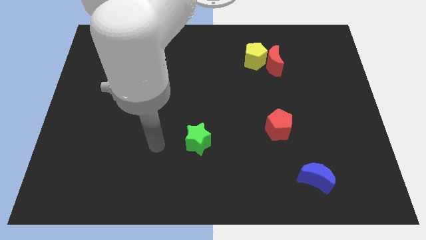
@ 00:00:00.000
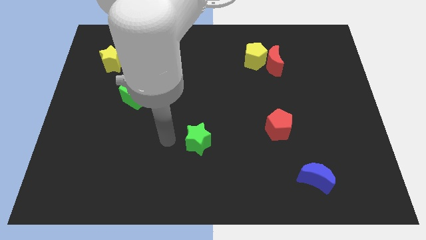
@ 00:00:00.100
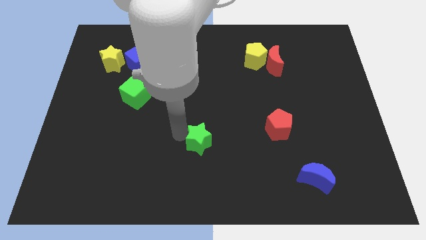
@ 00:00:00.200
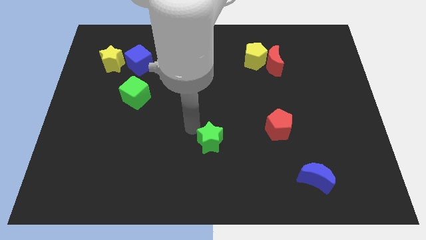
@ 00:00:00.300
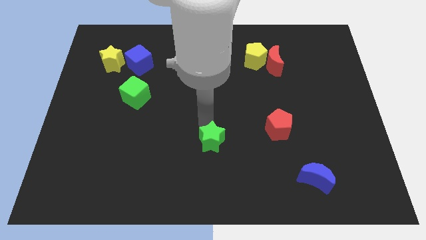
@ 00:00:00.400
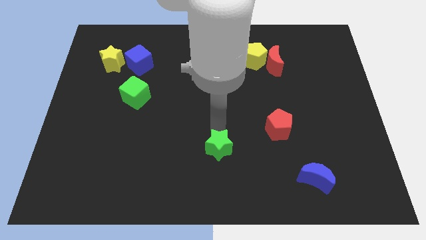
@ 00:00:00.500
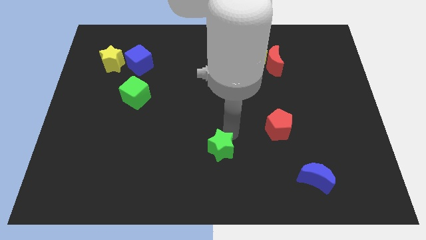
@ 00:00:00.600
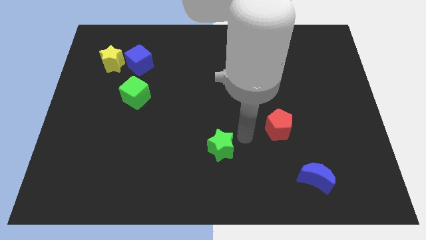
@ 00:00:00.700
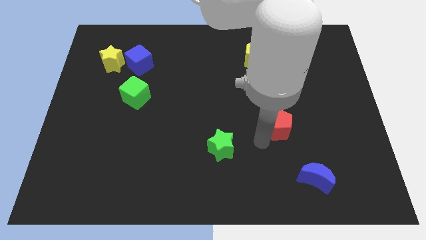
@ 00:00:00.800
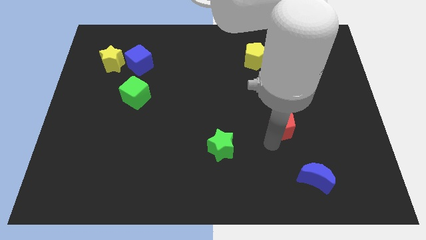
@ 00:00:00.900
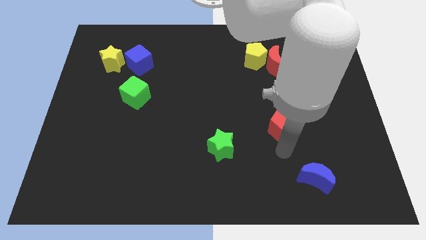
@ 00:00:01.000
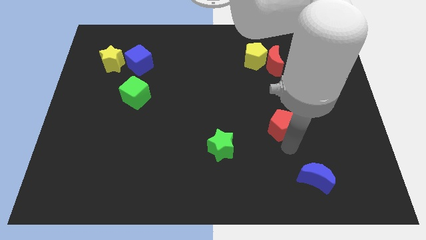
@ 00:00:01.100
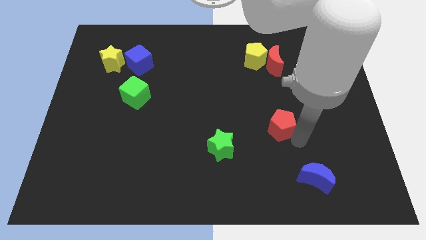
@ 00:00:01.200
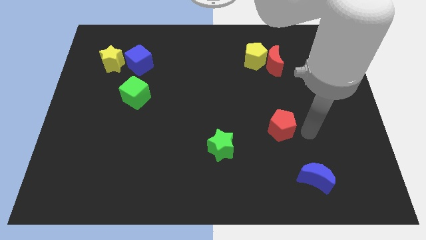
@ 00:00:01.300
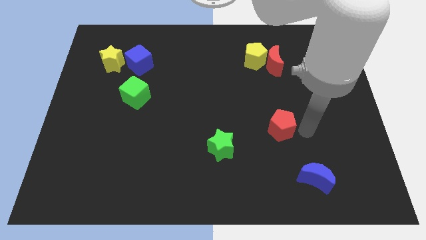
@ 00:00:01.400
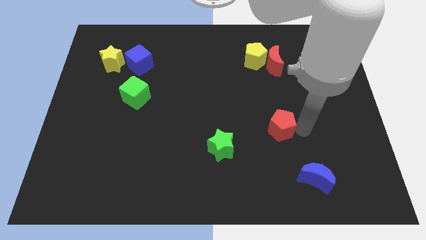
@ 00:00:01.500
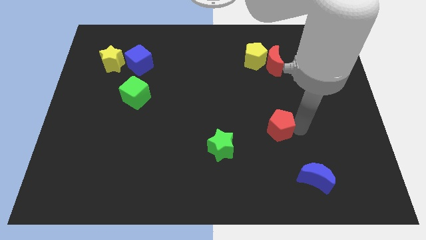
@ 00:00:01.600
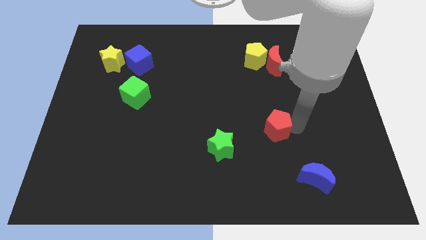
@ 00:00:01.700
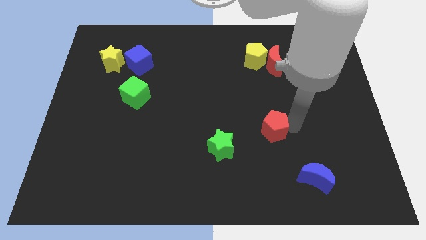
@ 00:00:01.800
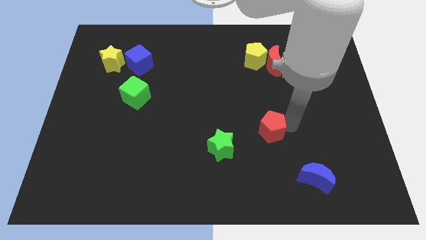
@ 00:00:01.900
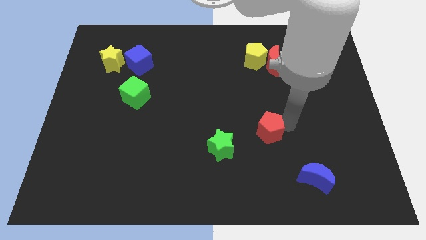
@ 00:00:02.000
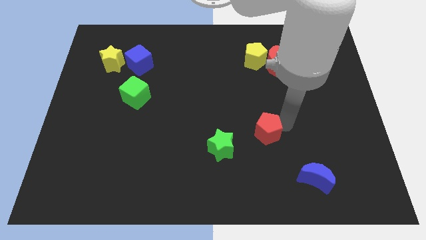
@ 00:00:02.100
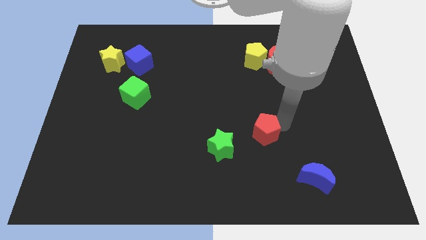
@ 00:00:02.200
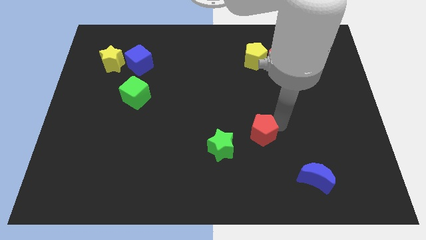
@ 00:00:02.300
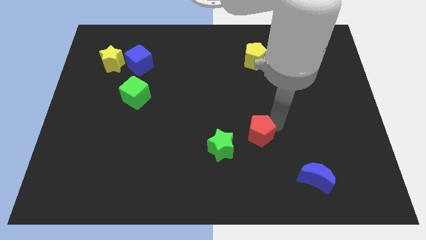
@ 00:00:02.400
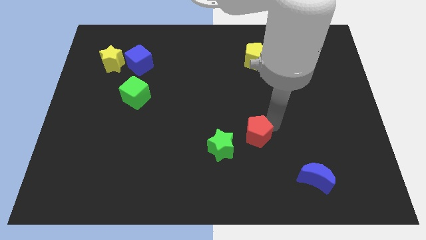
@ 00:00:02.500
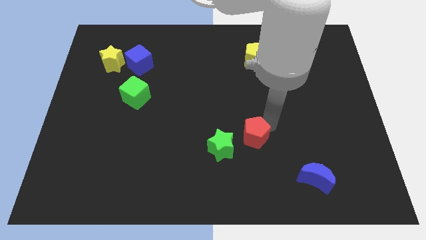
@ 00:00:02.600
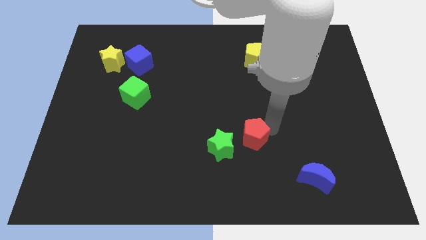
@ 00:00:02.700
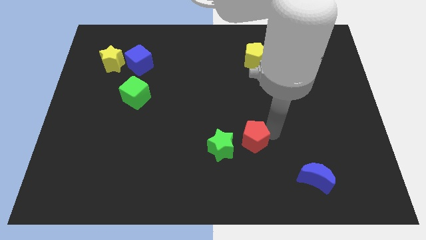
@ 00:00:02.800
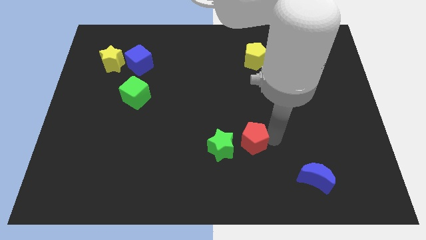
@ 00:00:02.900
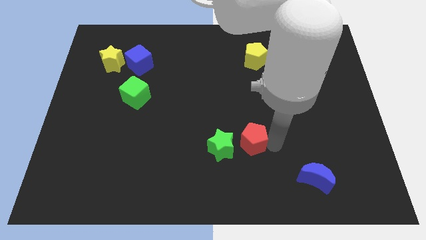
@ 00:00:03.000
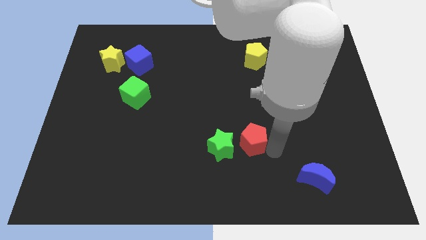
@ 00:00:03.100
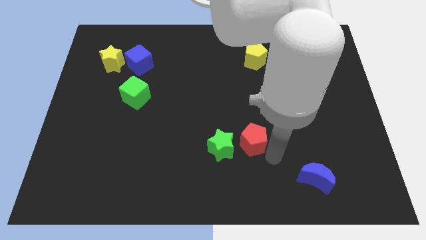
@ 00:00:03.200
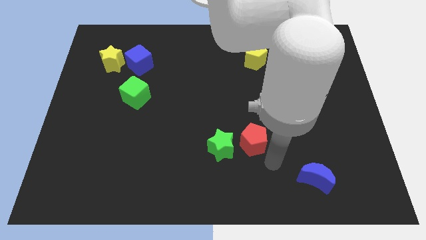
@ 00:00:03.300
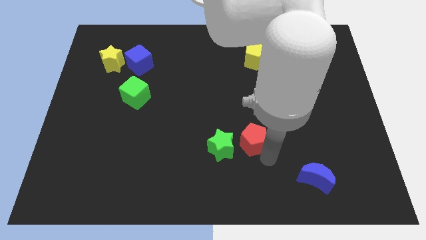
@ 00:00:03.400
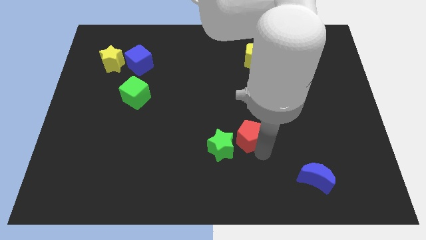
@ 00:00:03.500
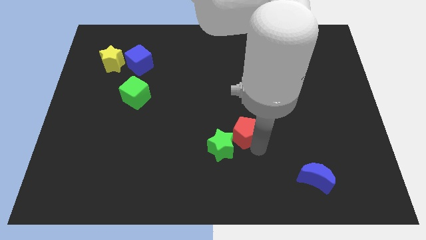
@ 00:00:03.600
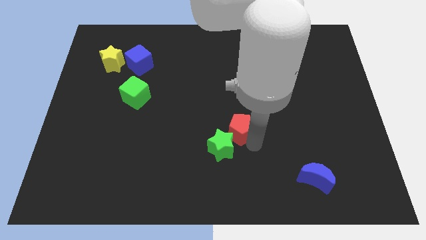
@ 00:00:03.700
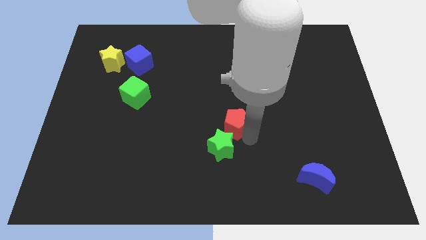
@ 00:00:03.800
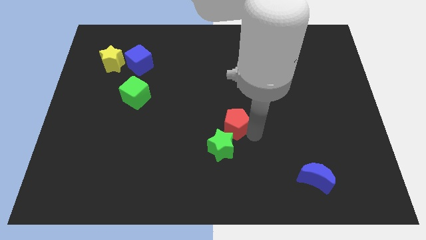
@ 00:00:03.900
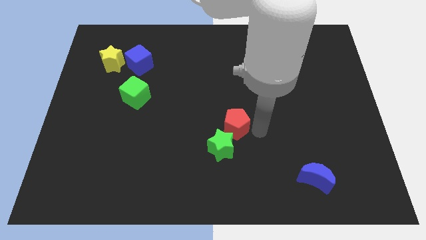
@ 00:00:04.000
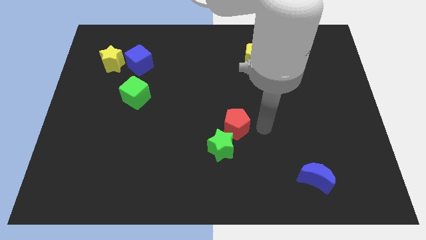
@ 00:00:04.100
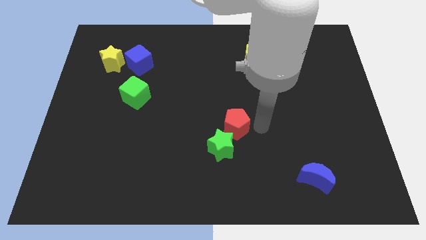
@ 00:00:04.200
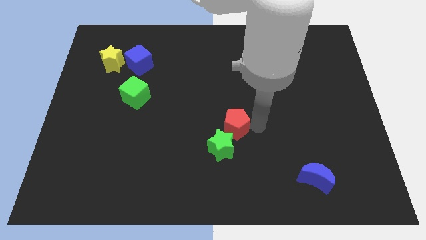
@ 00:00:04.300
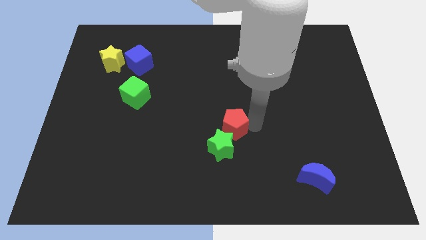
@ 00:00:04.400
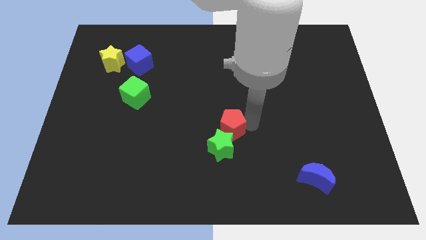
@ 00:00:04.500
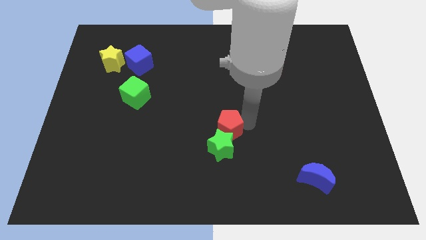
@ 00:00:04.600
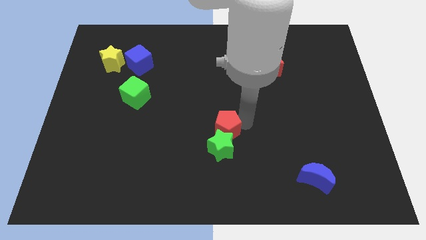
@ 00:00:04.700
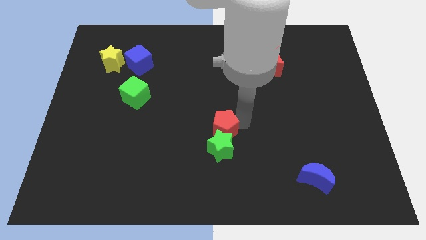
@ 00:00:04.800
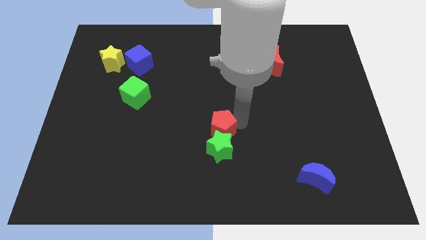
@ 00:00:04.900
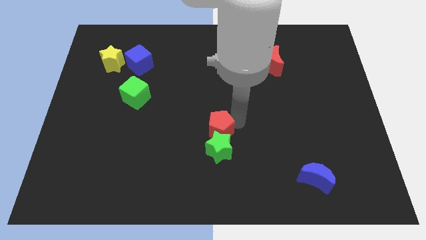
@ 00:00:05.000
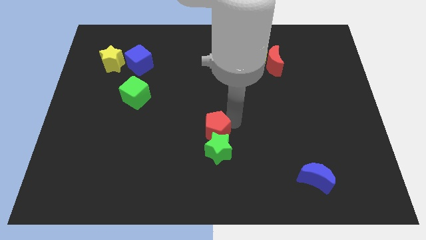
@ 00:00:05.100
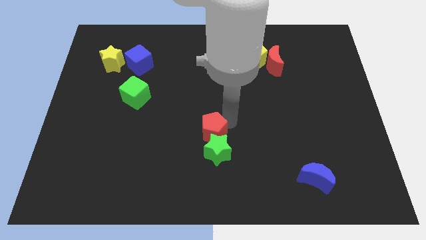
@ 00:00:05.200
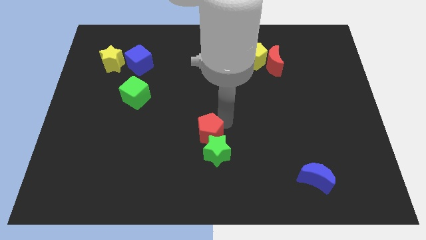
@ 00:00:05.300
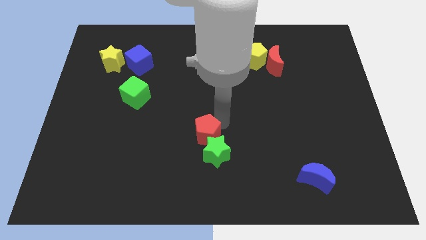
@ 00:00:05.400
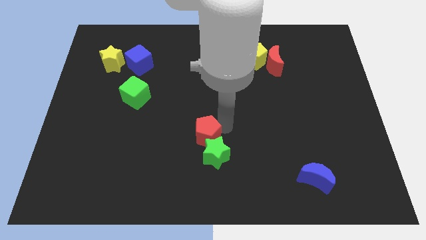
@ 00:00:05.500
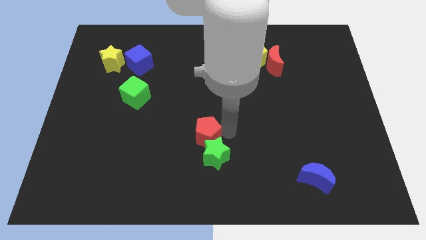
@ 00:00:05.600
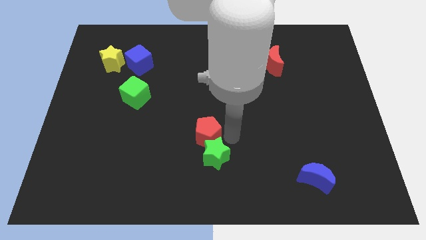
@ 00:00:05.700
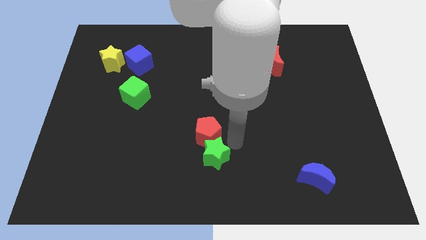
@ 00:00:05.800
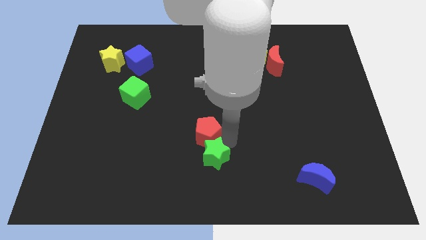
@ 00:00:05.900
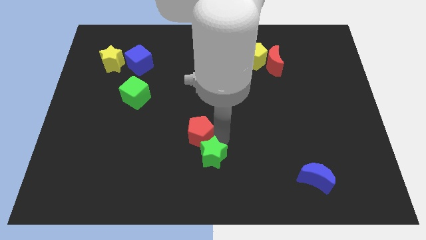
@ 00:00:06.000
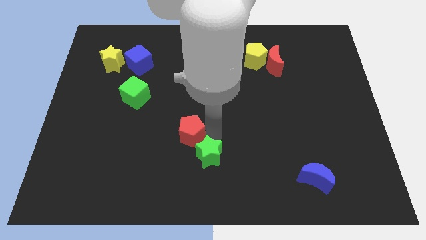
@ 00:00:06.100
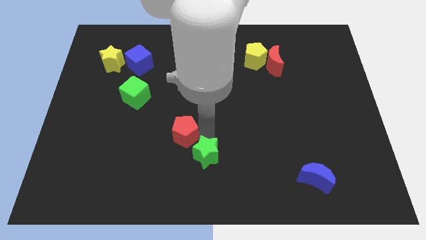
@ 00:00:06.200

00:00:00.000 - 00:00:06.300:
push the red pentagon left

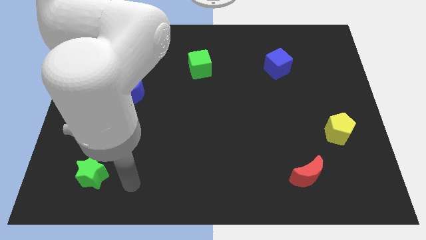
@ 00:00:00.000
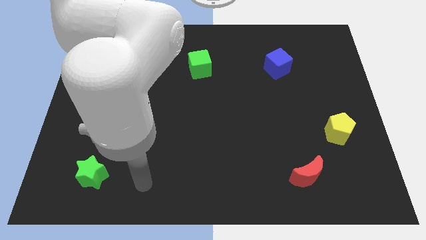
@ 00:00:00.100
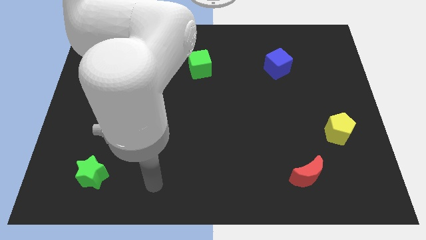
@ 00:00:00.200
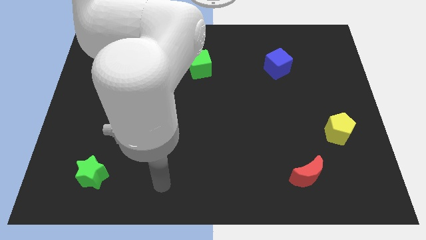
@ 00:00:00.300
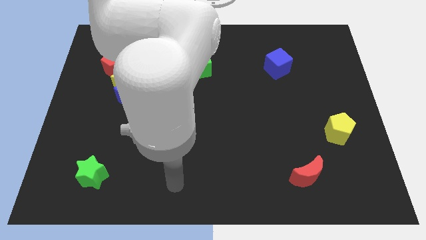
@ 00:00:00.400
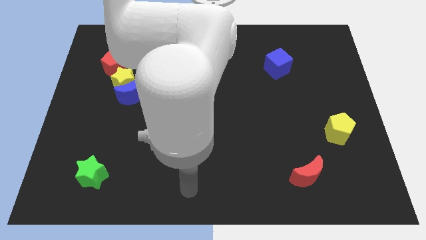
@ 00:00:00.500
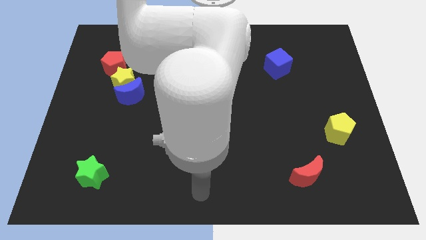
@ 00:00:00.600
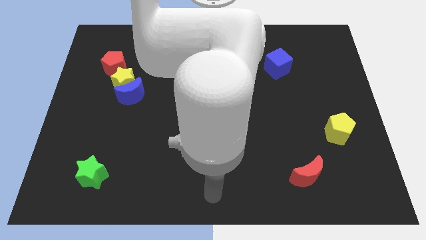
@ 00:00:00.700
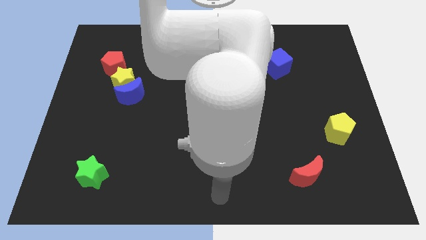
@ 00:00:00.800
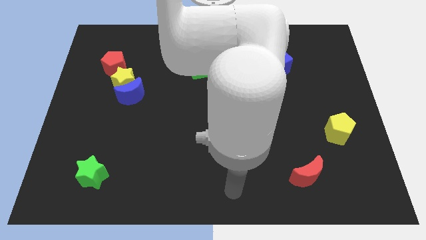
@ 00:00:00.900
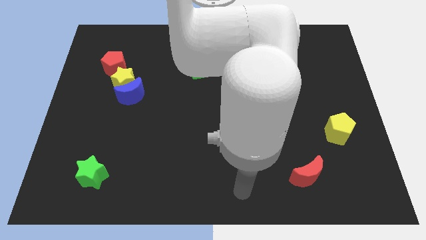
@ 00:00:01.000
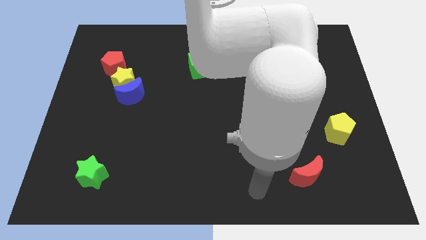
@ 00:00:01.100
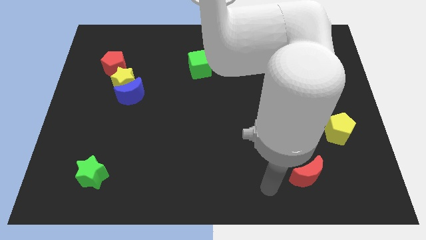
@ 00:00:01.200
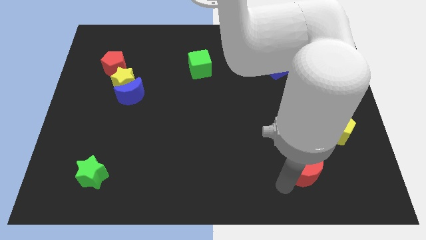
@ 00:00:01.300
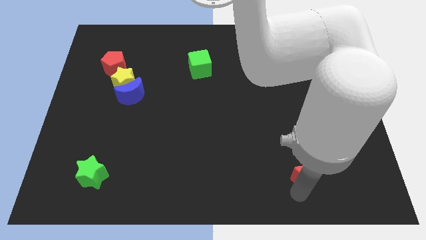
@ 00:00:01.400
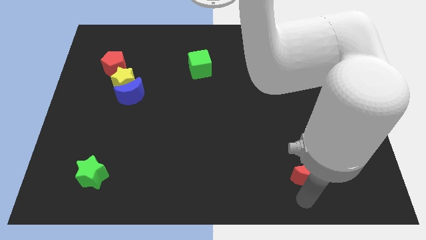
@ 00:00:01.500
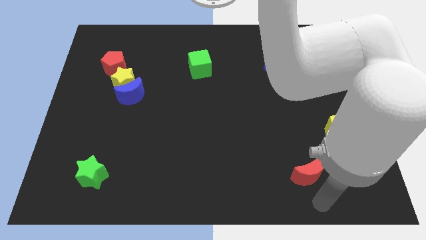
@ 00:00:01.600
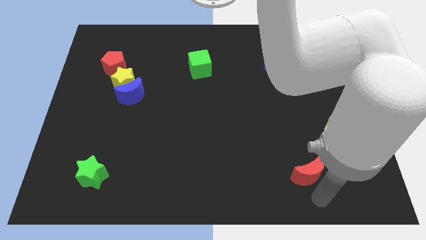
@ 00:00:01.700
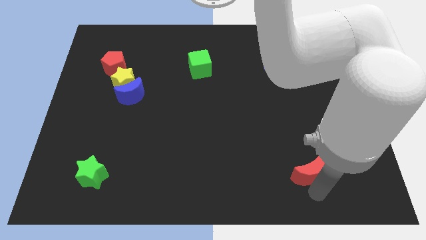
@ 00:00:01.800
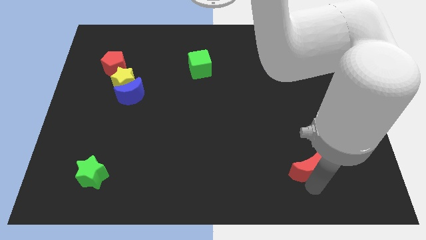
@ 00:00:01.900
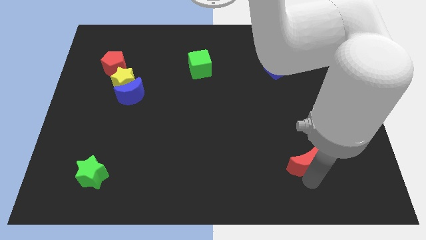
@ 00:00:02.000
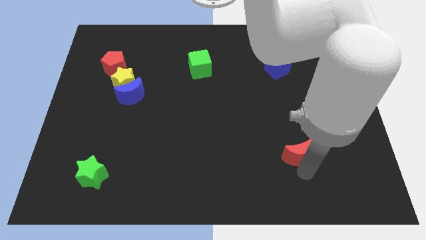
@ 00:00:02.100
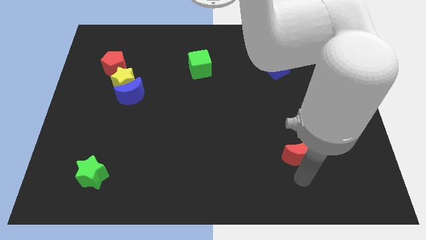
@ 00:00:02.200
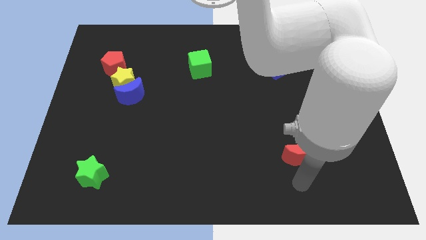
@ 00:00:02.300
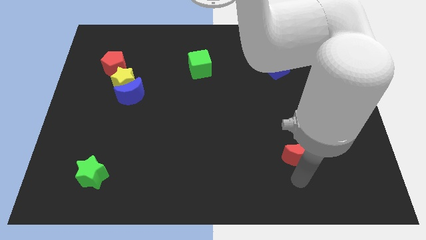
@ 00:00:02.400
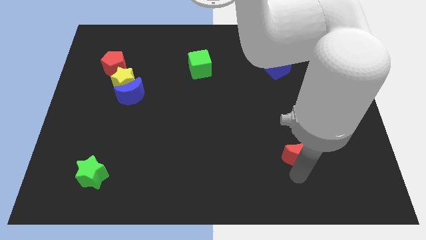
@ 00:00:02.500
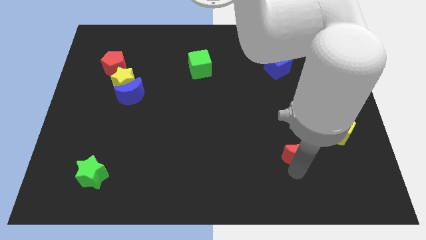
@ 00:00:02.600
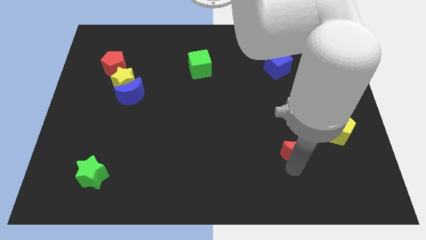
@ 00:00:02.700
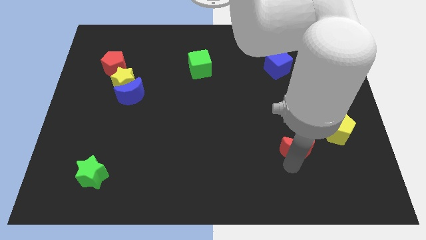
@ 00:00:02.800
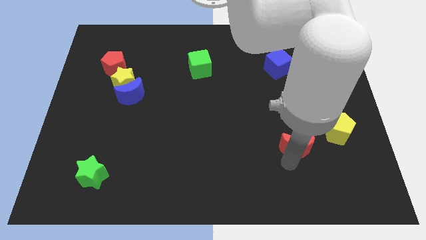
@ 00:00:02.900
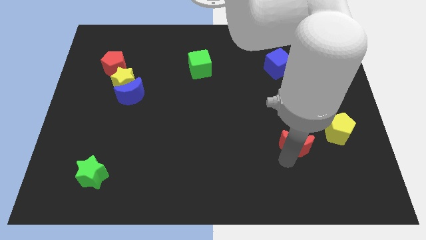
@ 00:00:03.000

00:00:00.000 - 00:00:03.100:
slightly move the red moon up
